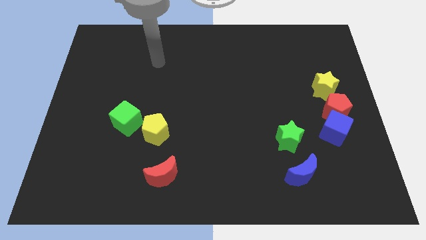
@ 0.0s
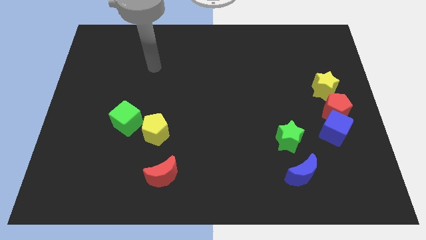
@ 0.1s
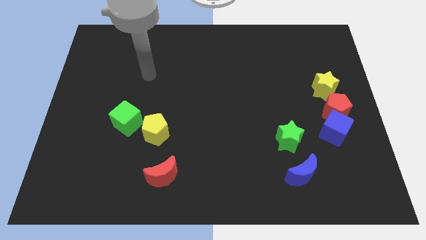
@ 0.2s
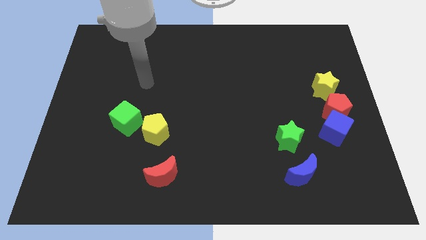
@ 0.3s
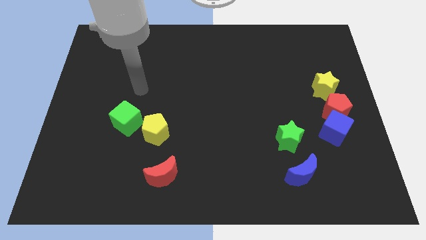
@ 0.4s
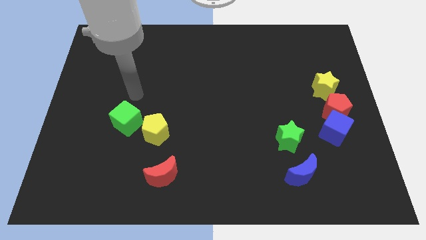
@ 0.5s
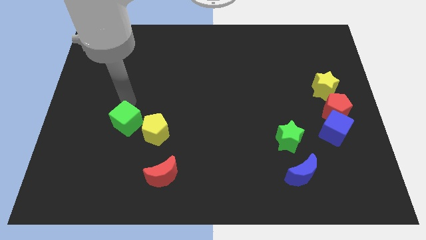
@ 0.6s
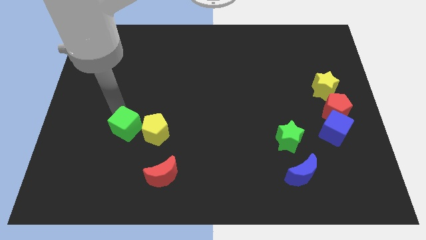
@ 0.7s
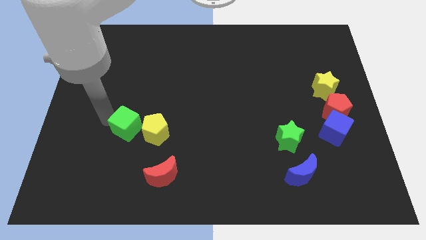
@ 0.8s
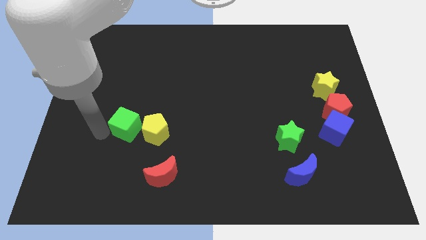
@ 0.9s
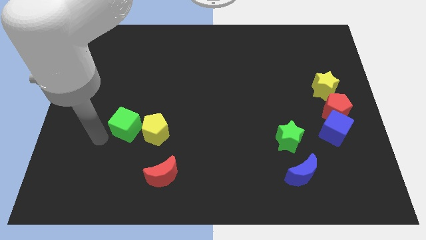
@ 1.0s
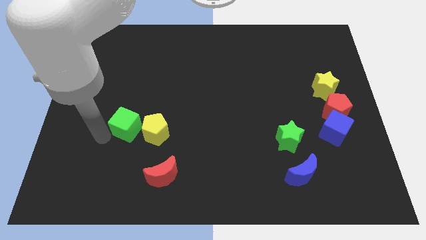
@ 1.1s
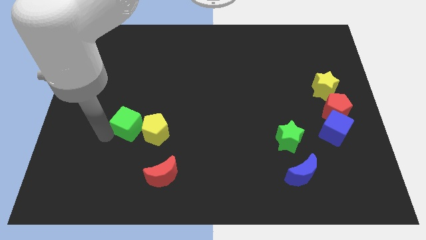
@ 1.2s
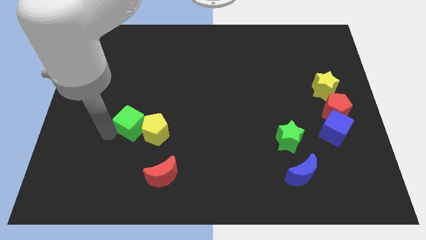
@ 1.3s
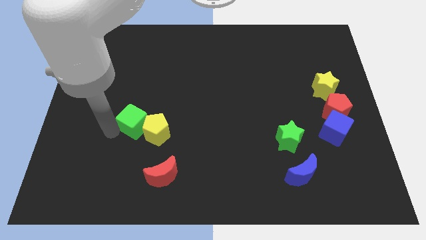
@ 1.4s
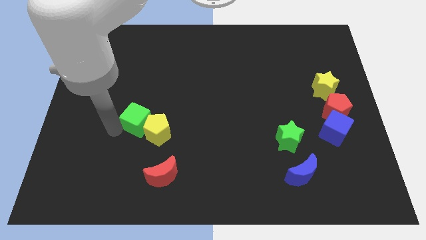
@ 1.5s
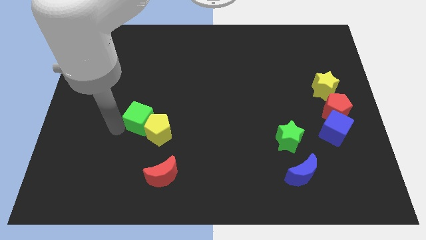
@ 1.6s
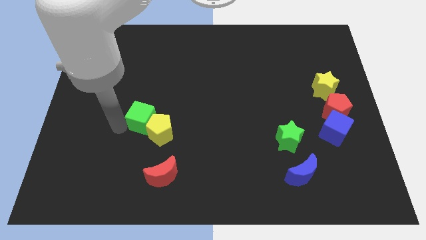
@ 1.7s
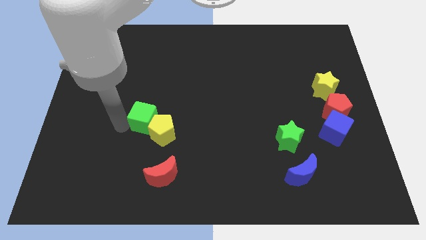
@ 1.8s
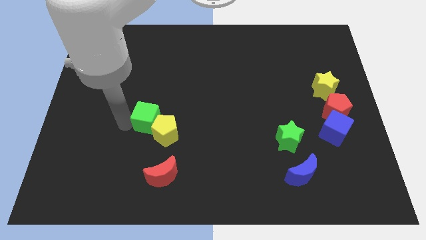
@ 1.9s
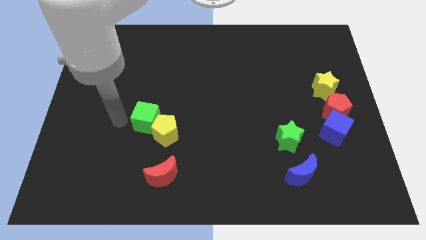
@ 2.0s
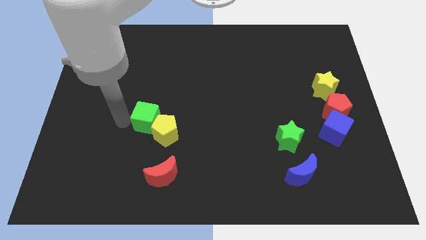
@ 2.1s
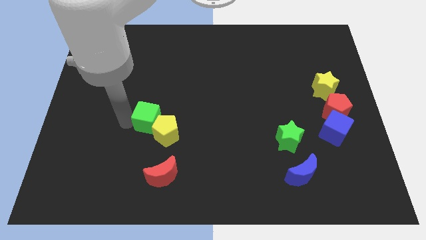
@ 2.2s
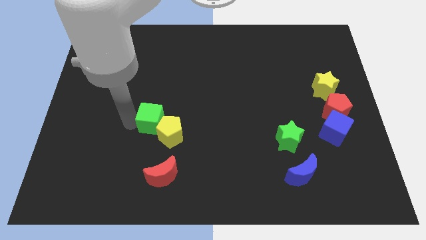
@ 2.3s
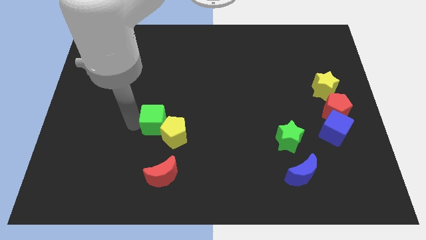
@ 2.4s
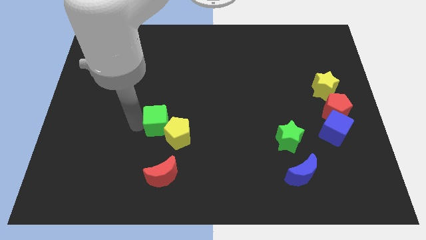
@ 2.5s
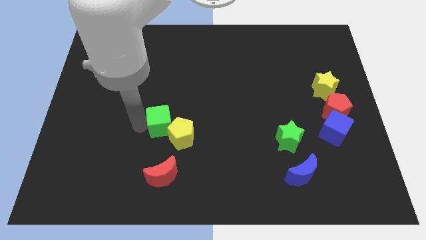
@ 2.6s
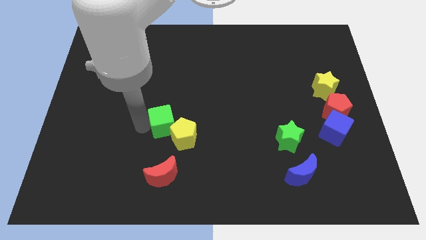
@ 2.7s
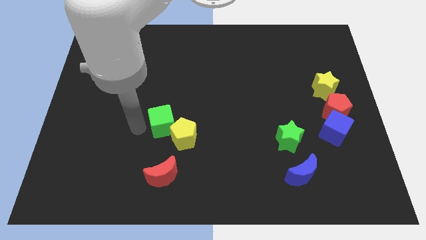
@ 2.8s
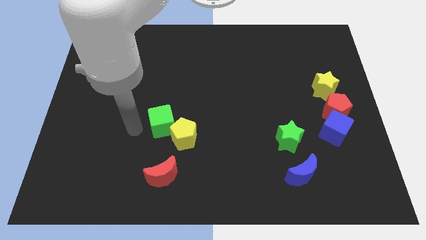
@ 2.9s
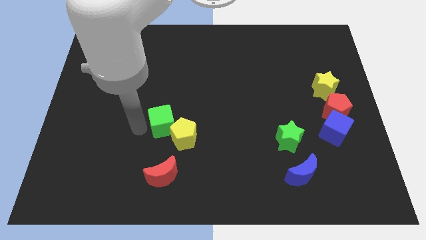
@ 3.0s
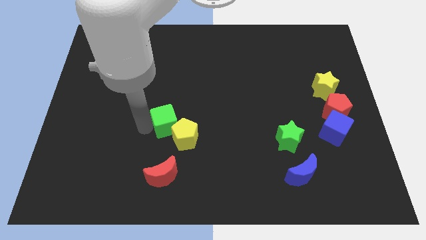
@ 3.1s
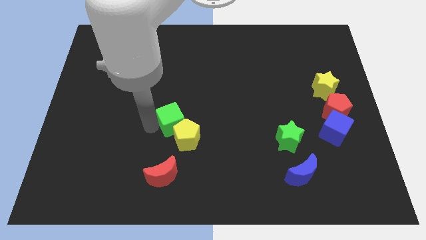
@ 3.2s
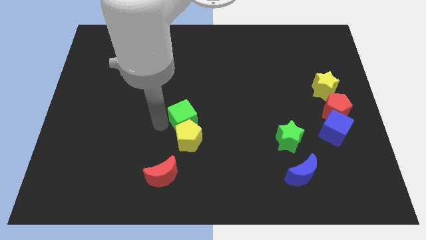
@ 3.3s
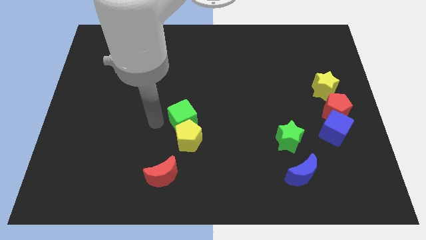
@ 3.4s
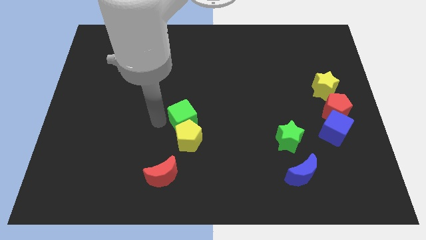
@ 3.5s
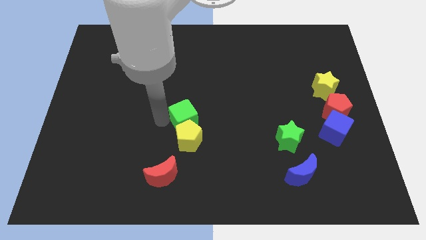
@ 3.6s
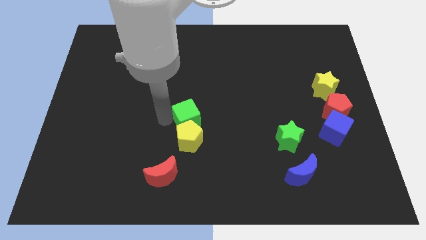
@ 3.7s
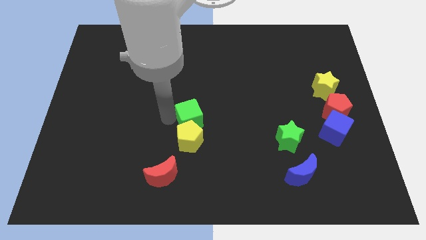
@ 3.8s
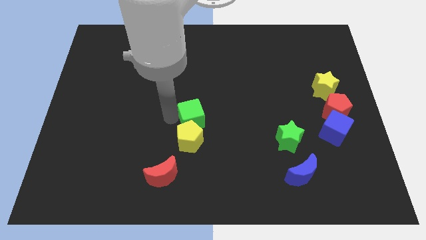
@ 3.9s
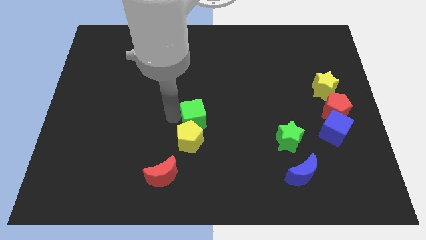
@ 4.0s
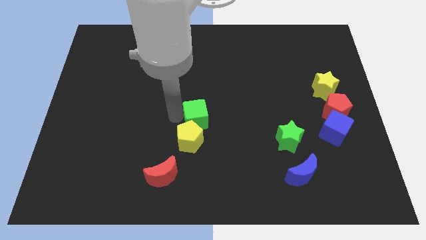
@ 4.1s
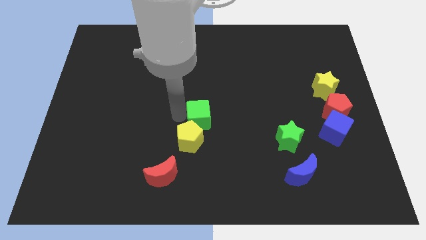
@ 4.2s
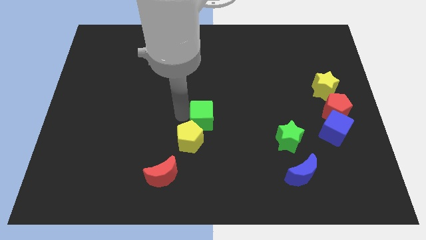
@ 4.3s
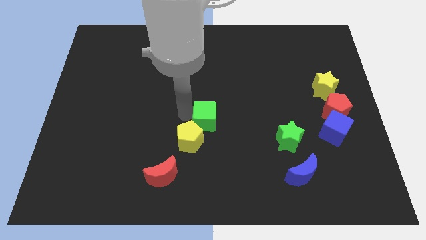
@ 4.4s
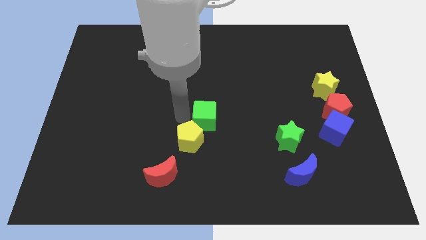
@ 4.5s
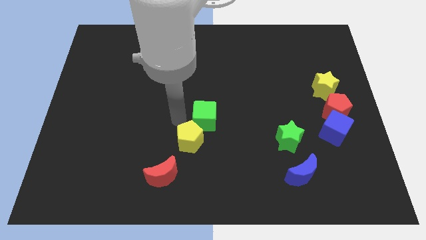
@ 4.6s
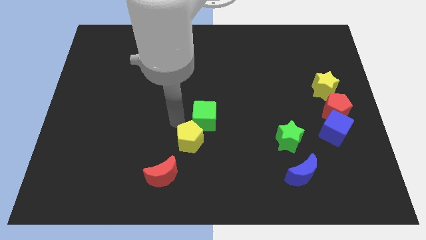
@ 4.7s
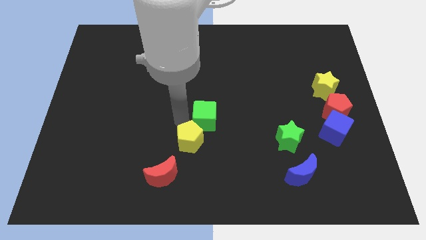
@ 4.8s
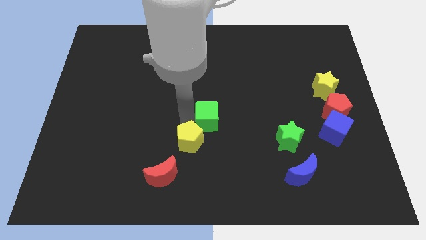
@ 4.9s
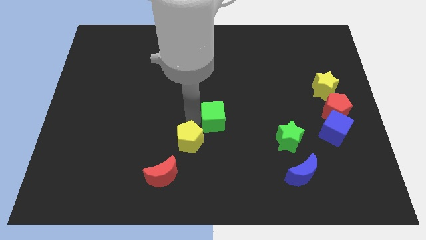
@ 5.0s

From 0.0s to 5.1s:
move the green cube right

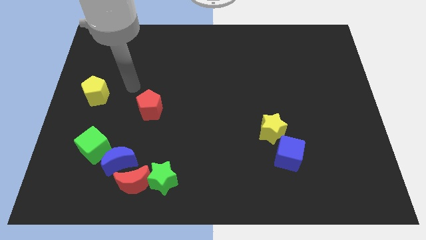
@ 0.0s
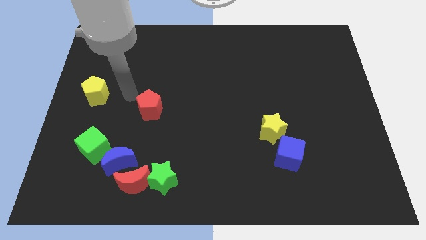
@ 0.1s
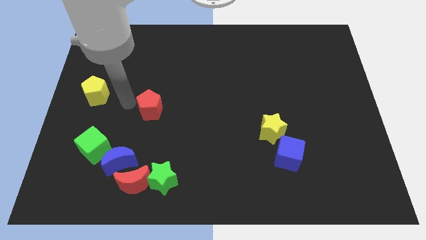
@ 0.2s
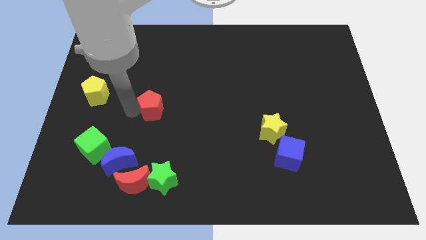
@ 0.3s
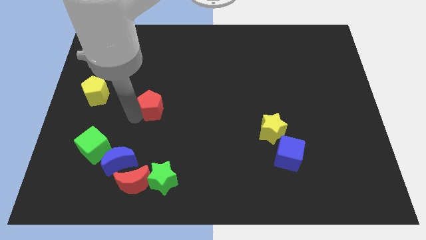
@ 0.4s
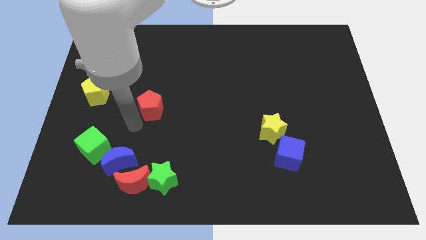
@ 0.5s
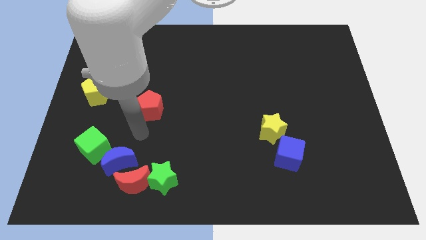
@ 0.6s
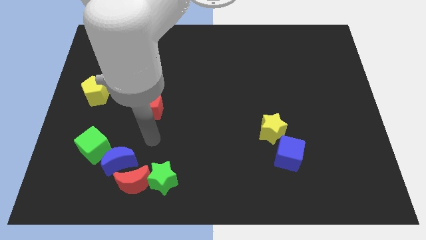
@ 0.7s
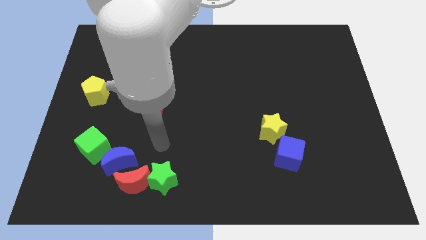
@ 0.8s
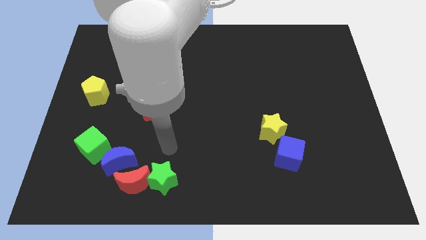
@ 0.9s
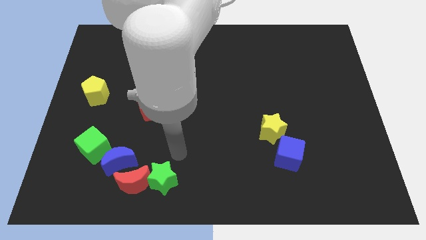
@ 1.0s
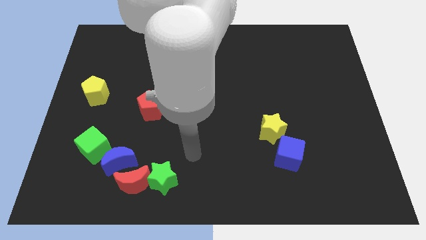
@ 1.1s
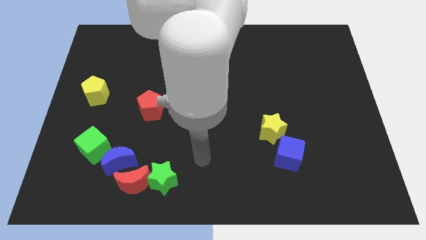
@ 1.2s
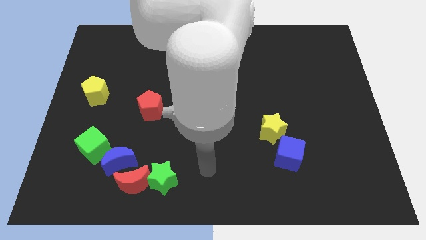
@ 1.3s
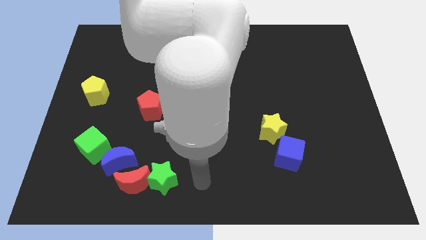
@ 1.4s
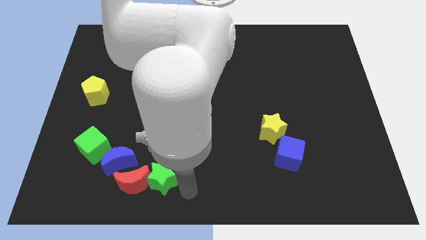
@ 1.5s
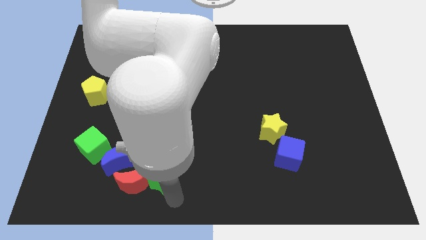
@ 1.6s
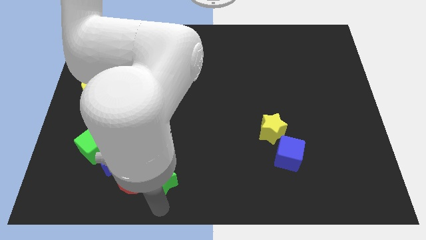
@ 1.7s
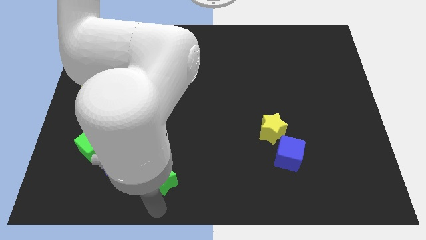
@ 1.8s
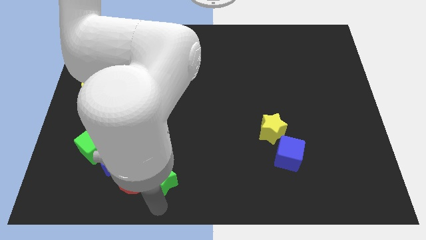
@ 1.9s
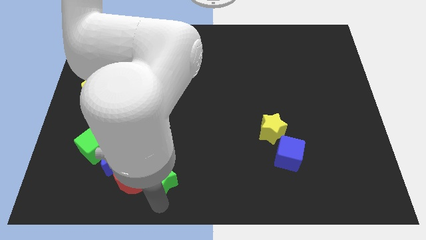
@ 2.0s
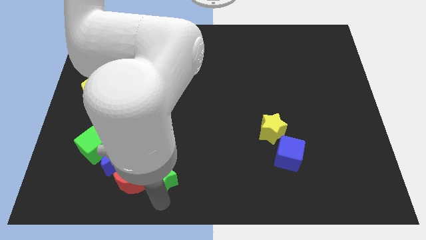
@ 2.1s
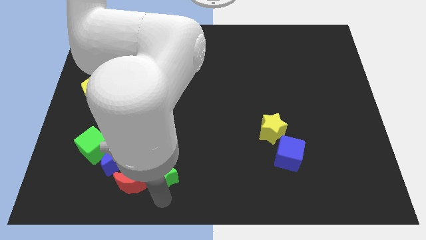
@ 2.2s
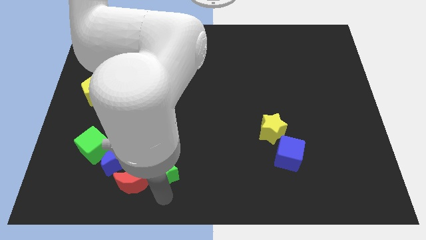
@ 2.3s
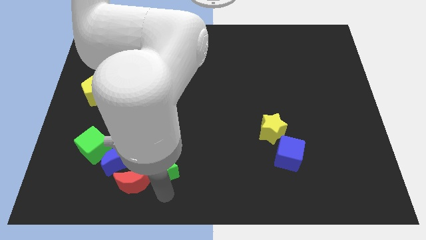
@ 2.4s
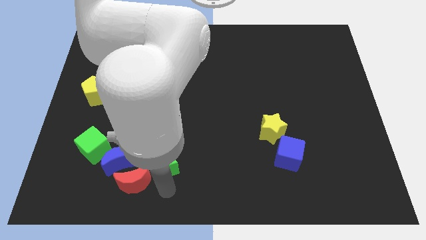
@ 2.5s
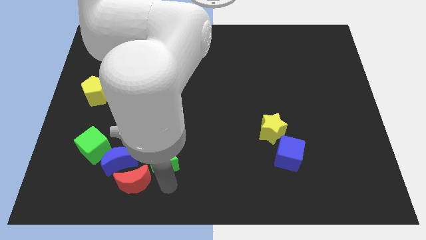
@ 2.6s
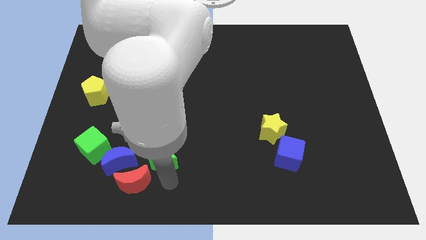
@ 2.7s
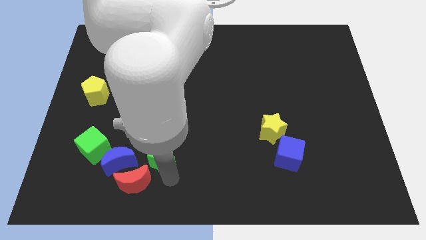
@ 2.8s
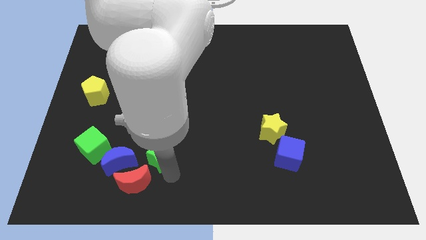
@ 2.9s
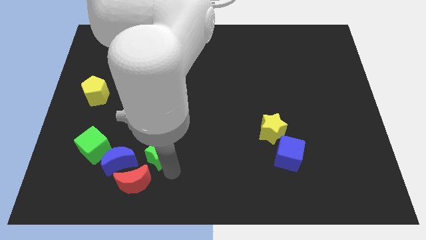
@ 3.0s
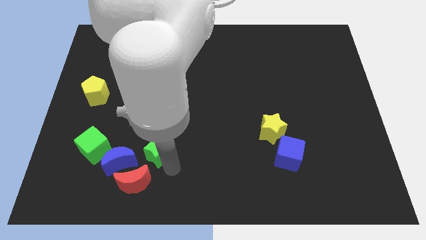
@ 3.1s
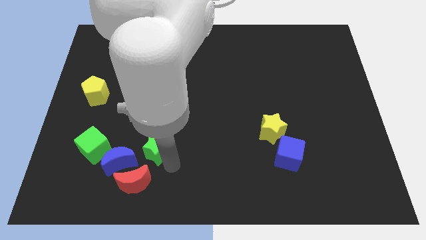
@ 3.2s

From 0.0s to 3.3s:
push the green star somewhat up
